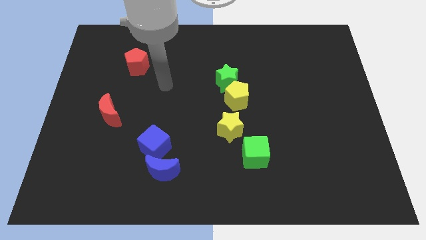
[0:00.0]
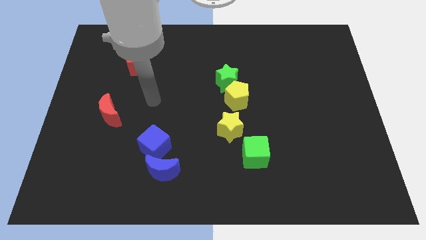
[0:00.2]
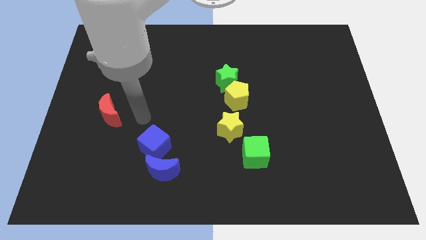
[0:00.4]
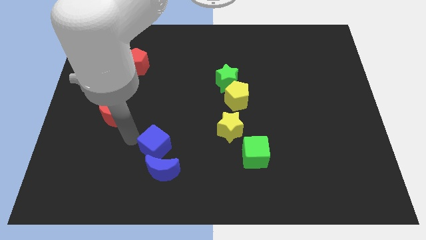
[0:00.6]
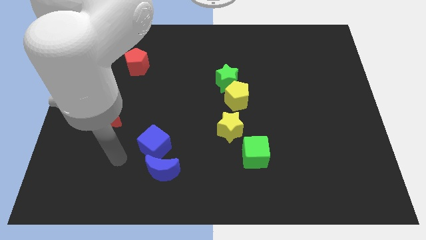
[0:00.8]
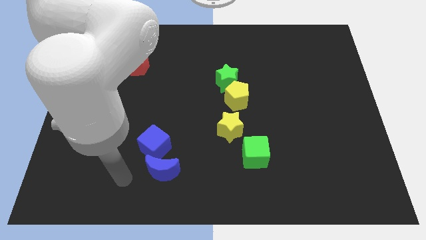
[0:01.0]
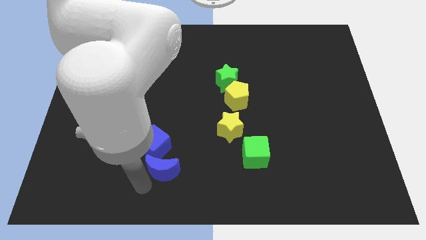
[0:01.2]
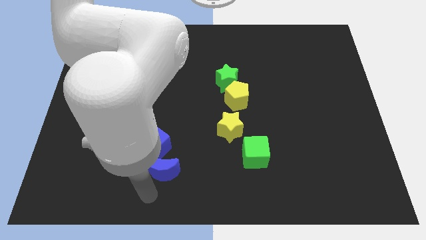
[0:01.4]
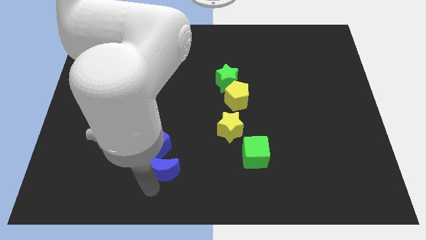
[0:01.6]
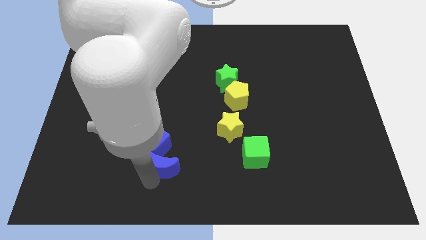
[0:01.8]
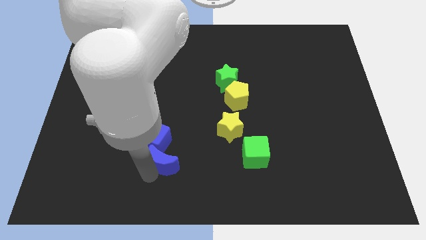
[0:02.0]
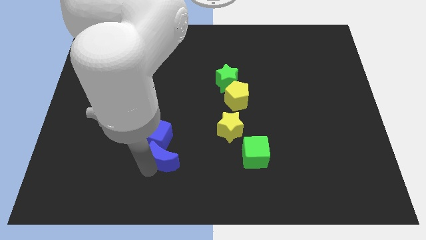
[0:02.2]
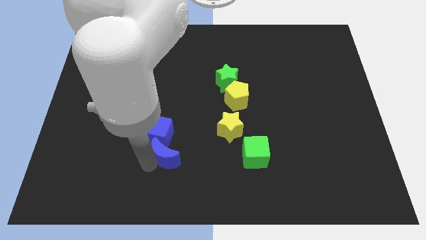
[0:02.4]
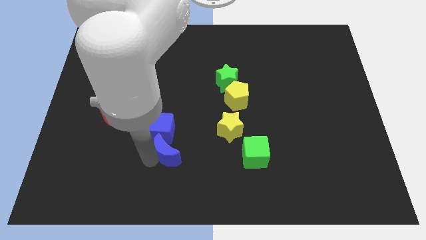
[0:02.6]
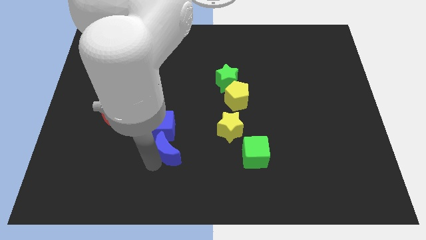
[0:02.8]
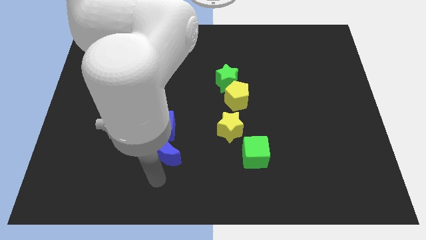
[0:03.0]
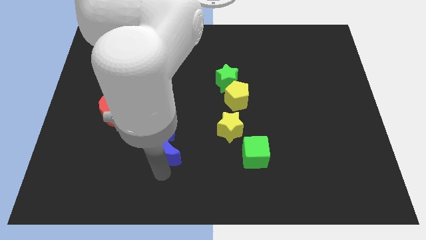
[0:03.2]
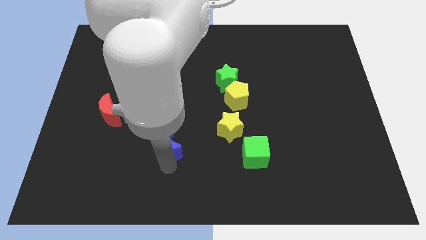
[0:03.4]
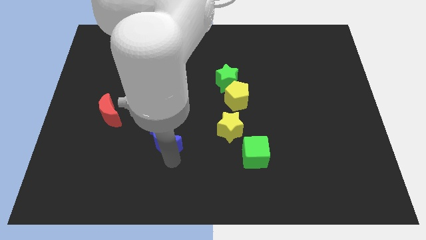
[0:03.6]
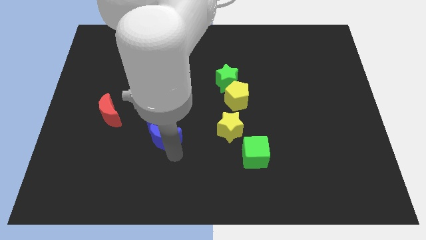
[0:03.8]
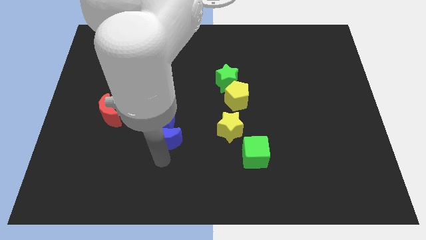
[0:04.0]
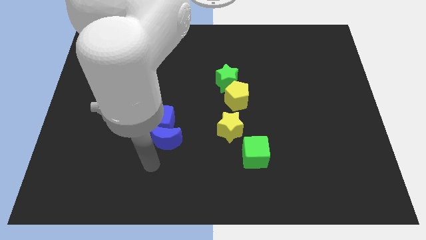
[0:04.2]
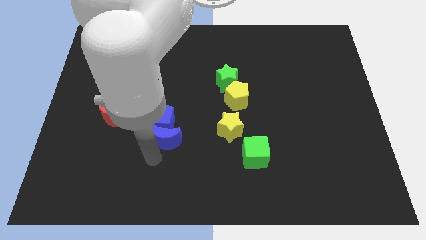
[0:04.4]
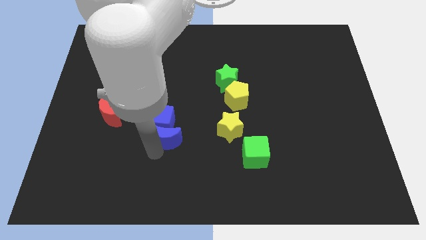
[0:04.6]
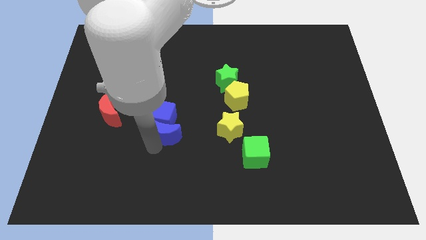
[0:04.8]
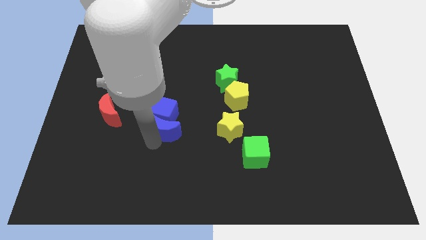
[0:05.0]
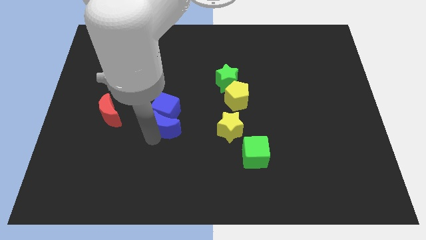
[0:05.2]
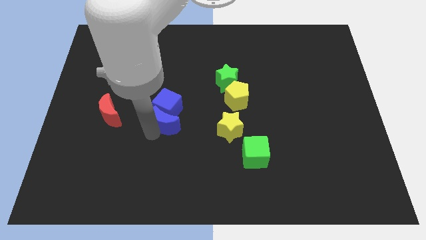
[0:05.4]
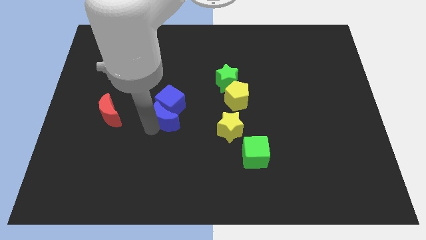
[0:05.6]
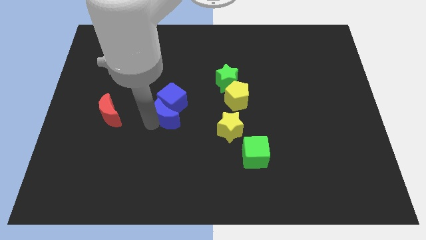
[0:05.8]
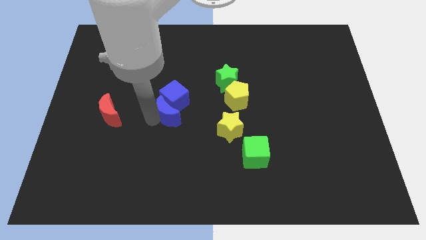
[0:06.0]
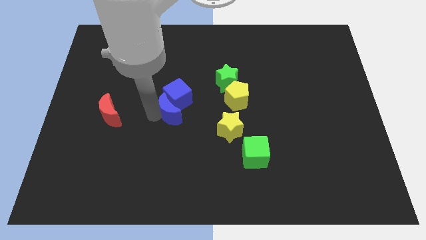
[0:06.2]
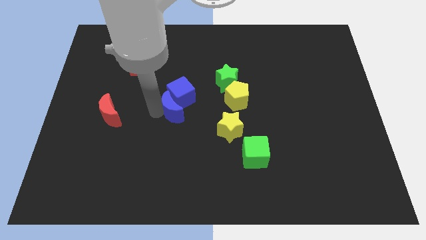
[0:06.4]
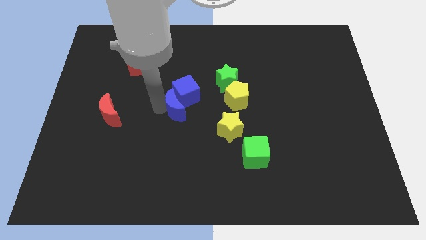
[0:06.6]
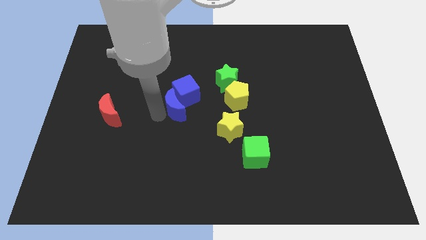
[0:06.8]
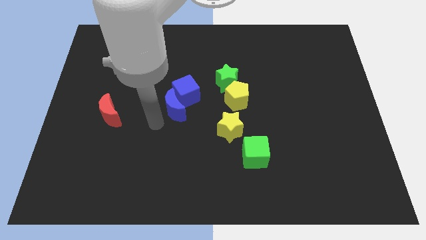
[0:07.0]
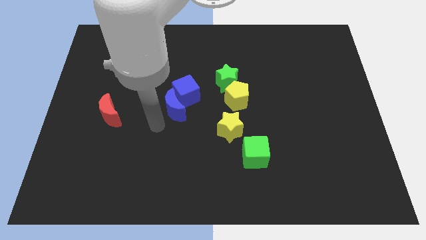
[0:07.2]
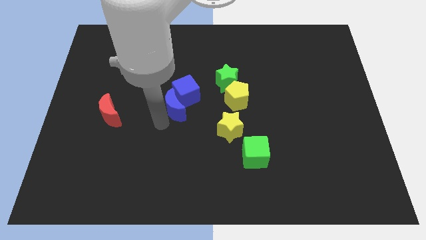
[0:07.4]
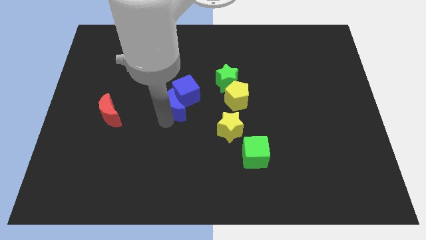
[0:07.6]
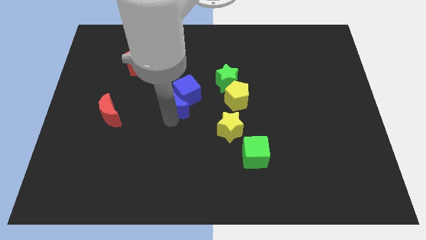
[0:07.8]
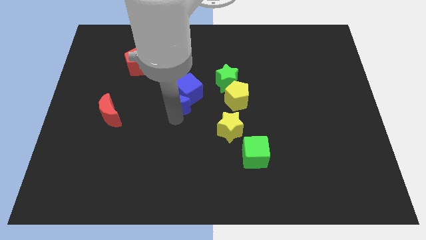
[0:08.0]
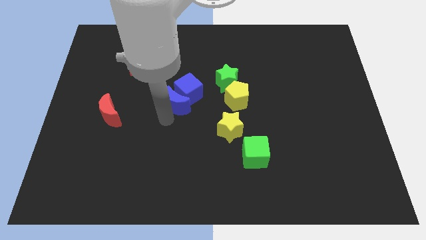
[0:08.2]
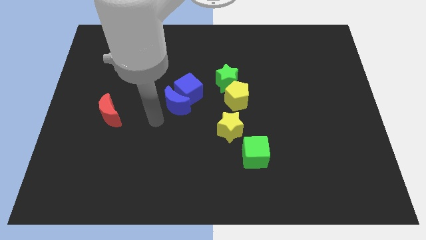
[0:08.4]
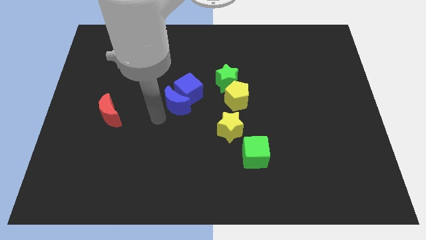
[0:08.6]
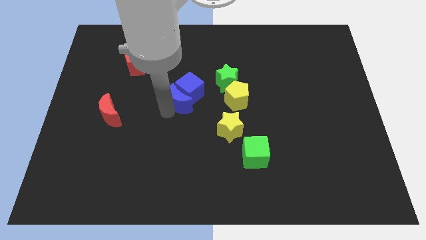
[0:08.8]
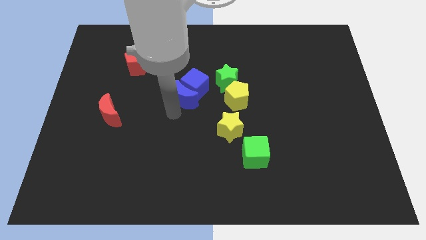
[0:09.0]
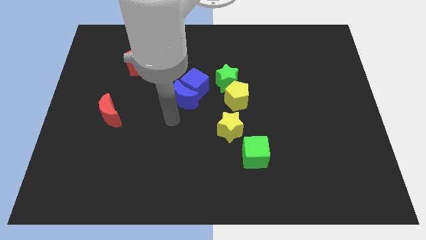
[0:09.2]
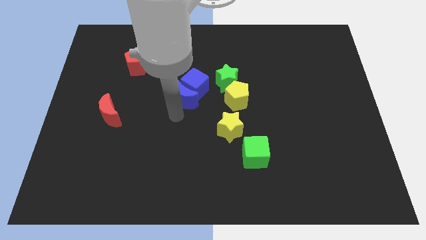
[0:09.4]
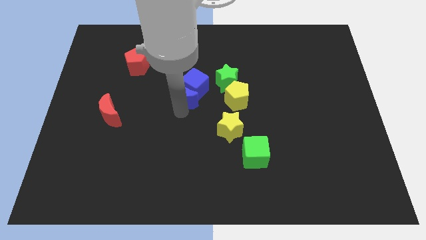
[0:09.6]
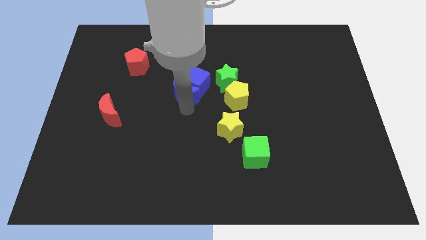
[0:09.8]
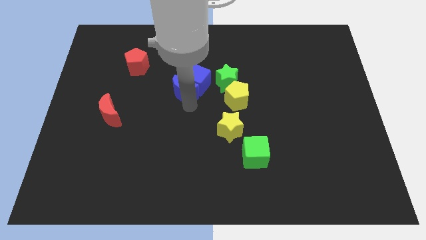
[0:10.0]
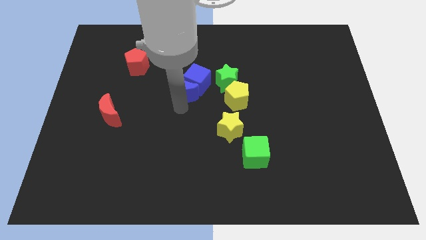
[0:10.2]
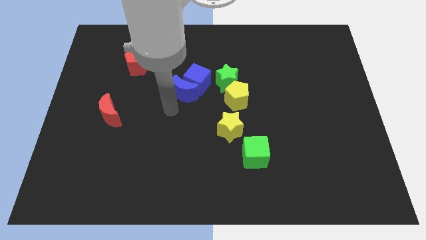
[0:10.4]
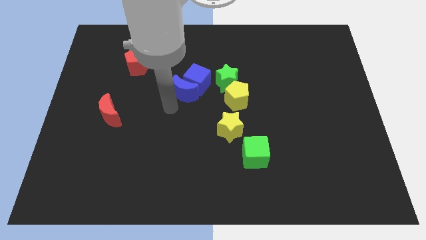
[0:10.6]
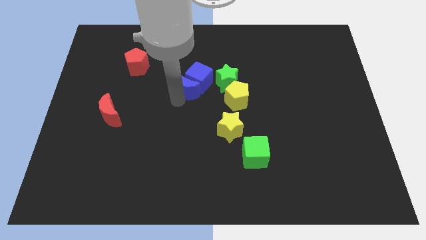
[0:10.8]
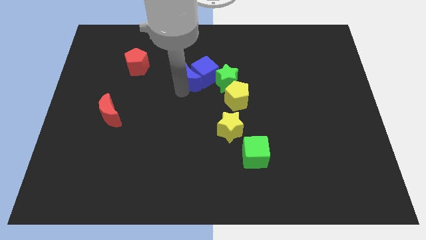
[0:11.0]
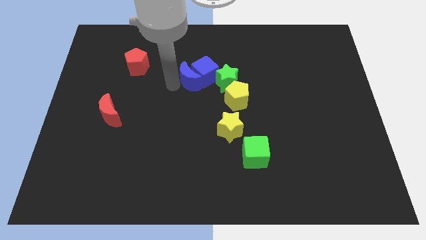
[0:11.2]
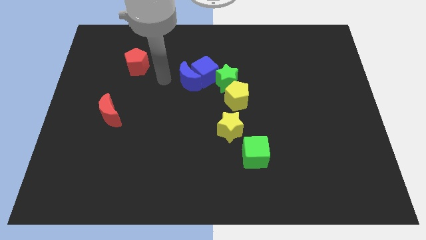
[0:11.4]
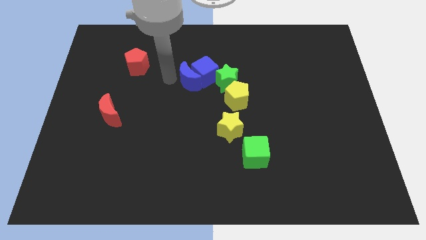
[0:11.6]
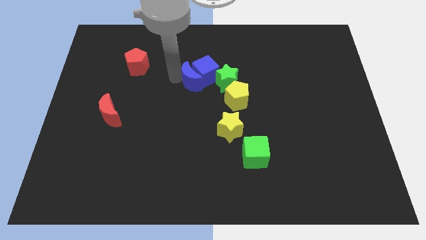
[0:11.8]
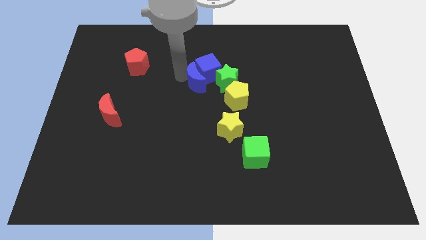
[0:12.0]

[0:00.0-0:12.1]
slide the blue moon to the top left of the yellow pentagon

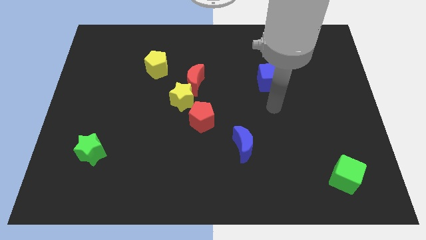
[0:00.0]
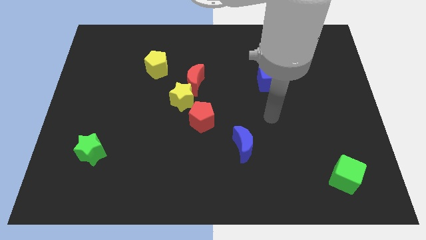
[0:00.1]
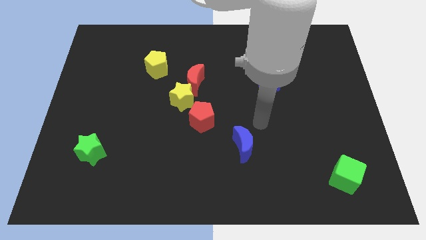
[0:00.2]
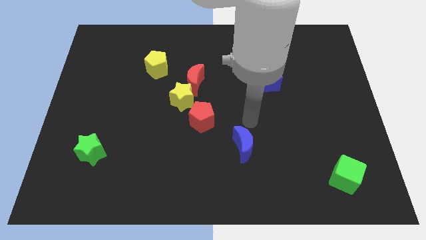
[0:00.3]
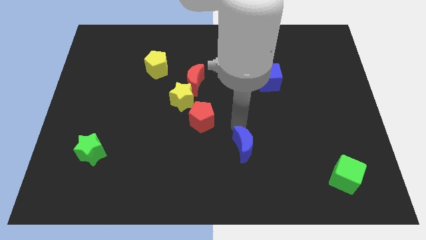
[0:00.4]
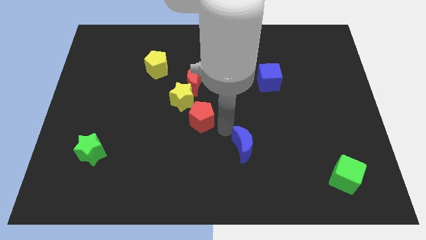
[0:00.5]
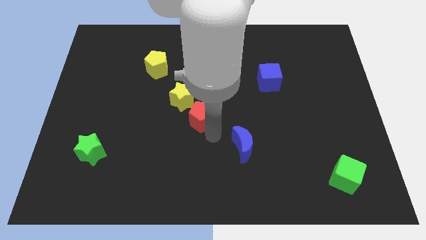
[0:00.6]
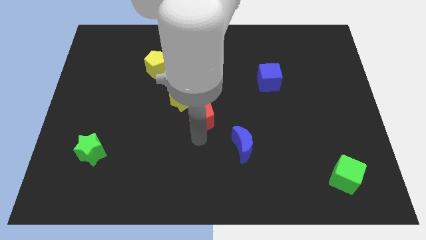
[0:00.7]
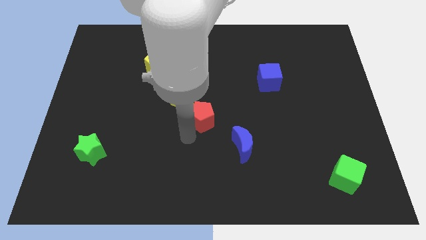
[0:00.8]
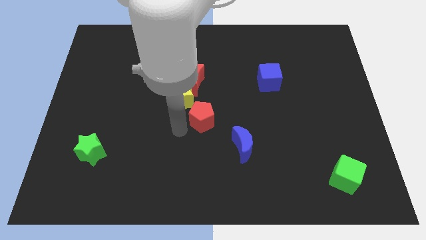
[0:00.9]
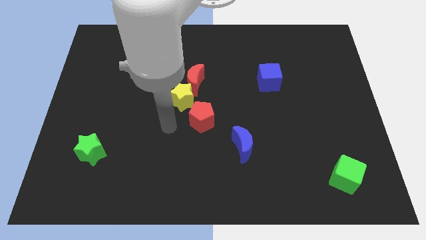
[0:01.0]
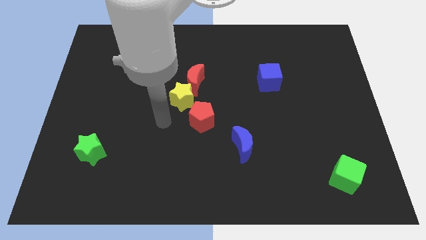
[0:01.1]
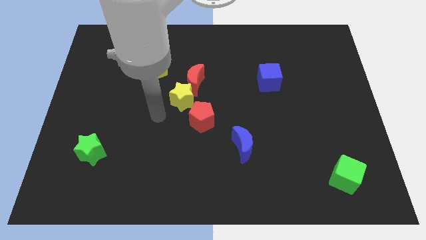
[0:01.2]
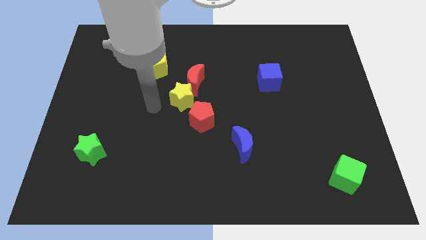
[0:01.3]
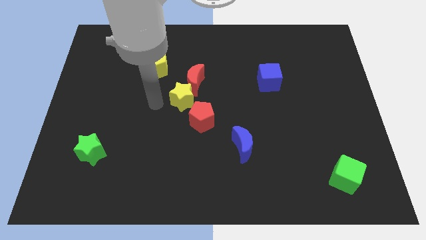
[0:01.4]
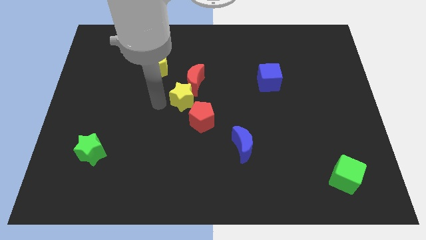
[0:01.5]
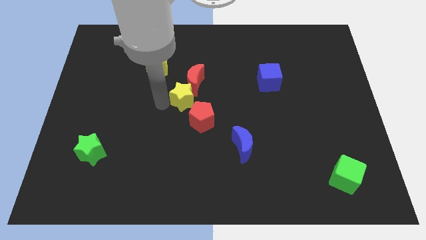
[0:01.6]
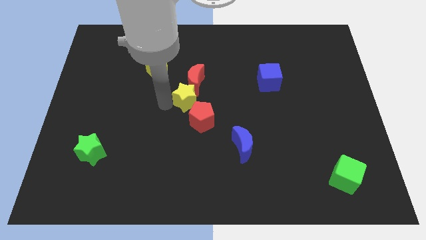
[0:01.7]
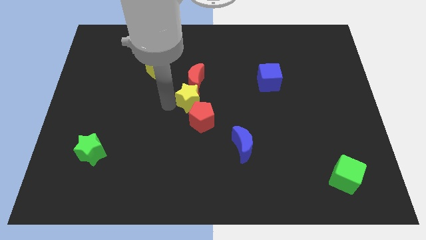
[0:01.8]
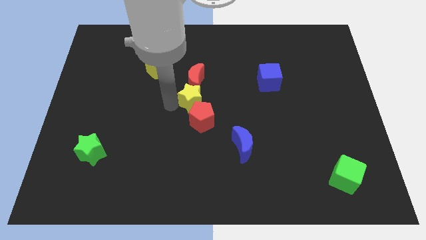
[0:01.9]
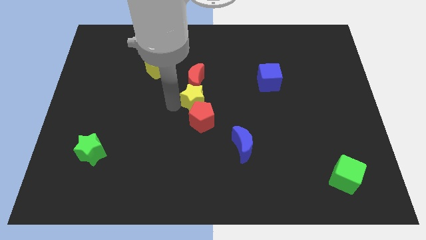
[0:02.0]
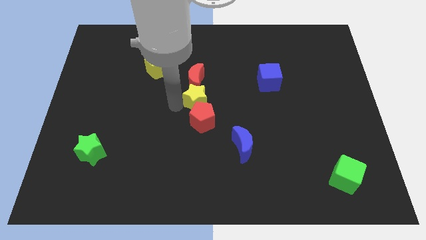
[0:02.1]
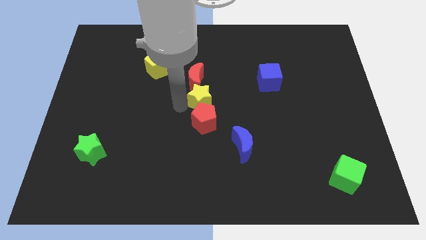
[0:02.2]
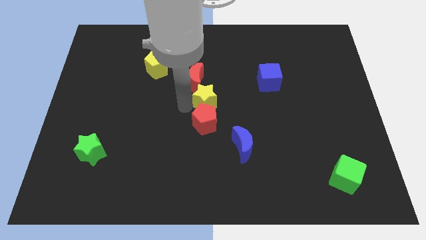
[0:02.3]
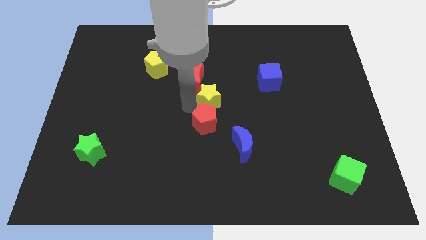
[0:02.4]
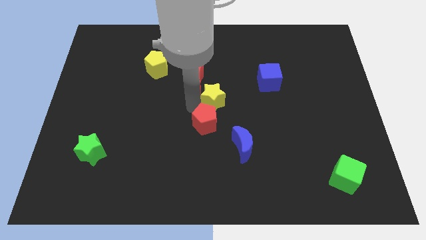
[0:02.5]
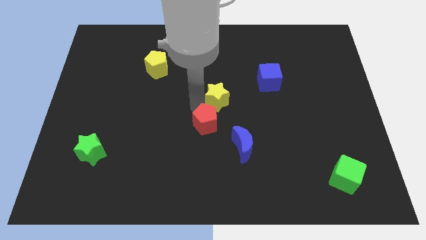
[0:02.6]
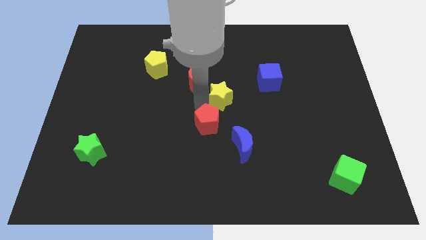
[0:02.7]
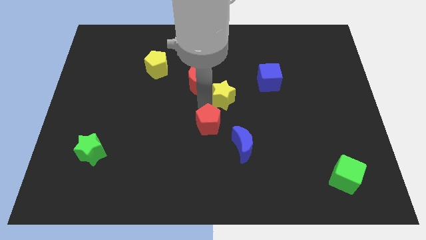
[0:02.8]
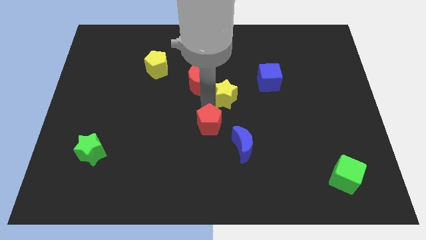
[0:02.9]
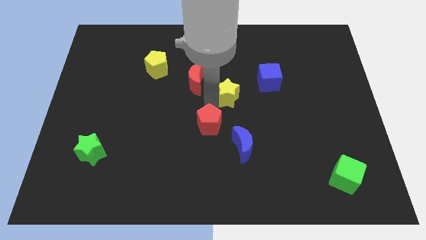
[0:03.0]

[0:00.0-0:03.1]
push the yellow star to the right side of the red moon
